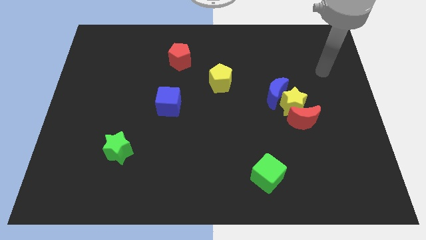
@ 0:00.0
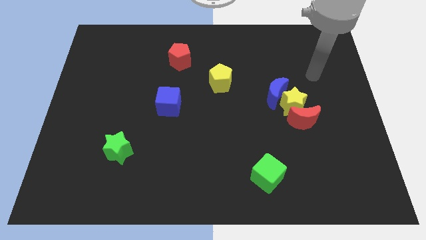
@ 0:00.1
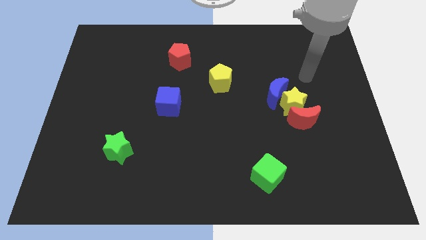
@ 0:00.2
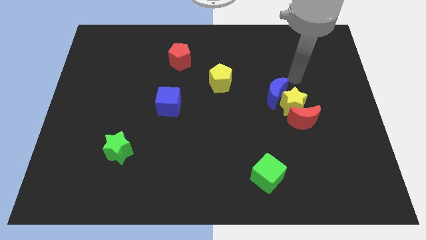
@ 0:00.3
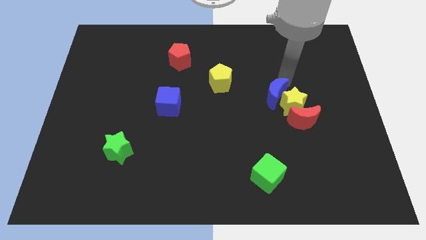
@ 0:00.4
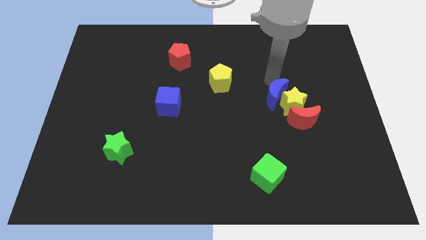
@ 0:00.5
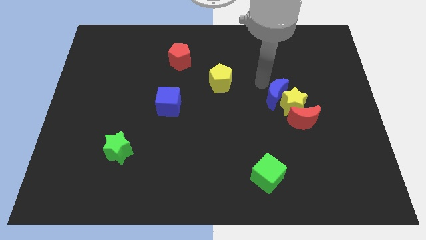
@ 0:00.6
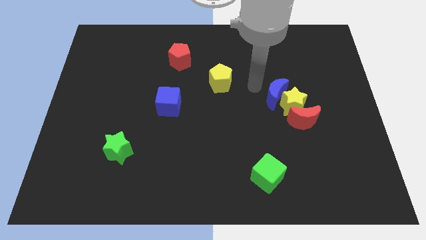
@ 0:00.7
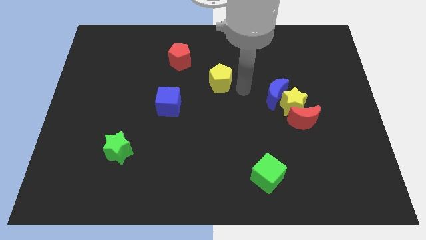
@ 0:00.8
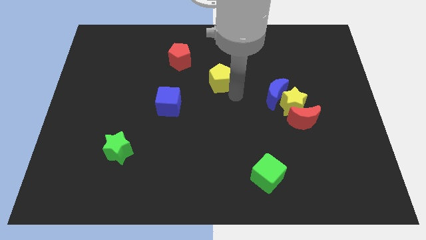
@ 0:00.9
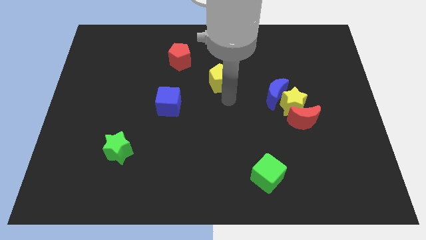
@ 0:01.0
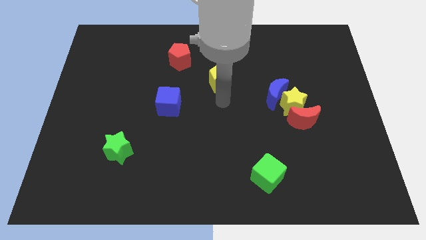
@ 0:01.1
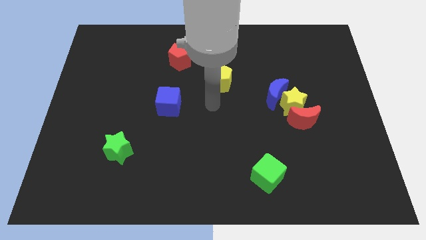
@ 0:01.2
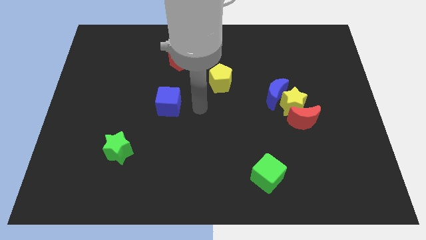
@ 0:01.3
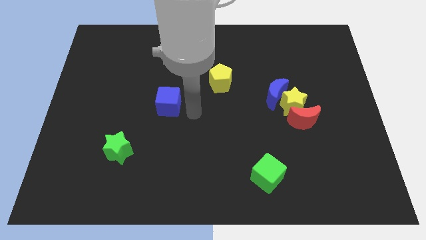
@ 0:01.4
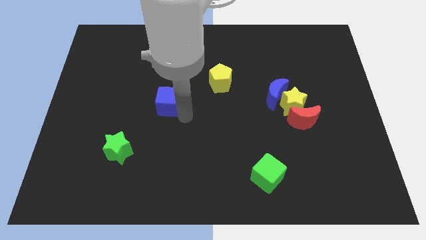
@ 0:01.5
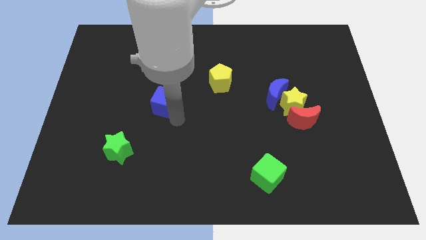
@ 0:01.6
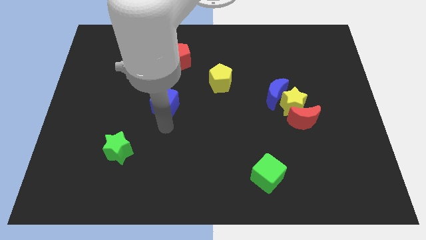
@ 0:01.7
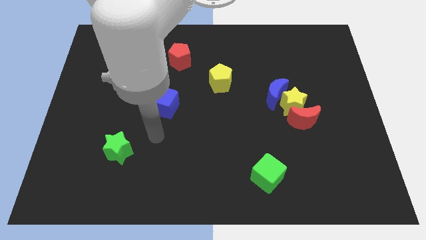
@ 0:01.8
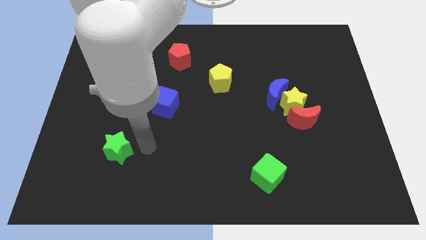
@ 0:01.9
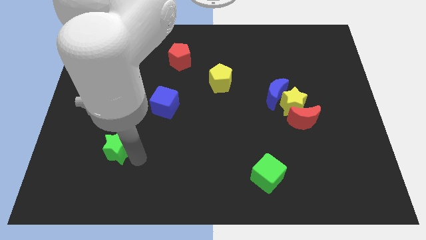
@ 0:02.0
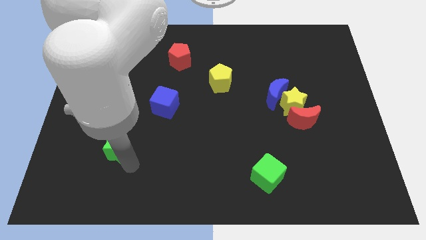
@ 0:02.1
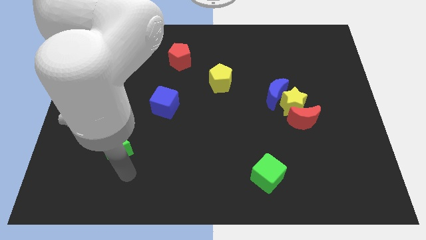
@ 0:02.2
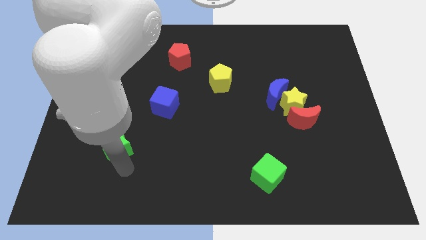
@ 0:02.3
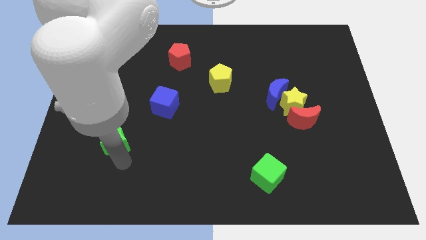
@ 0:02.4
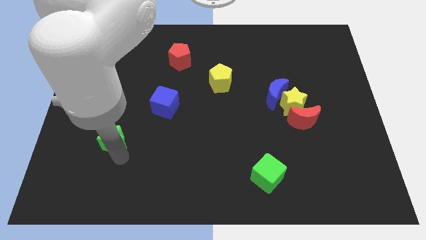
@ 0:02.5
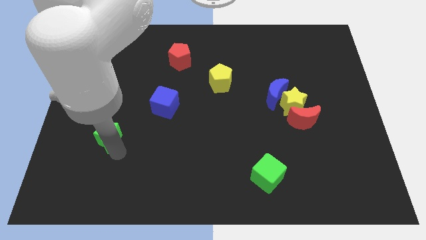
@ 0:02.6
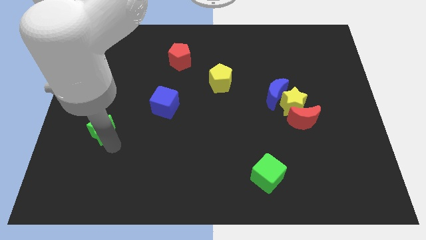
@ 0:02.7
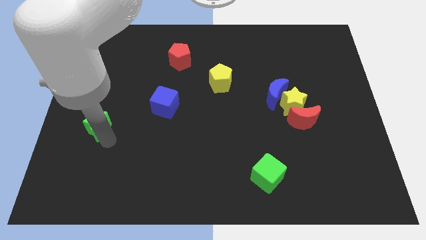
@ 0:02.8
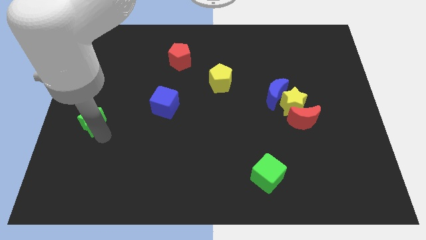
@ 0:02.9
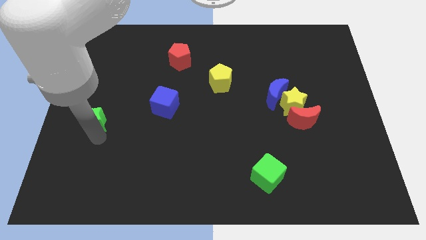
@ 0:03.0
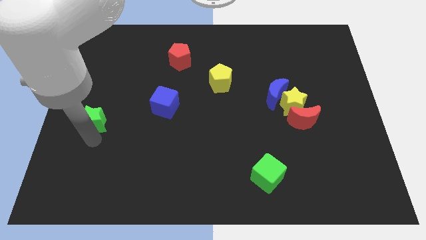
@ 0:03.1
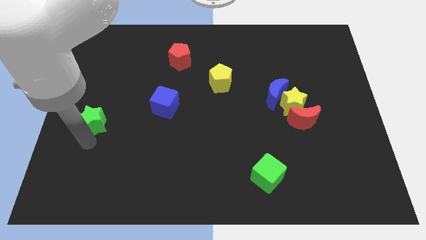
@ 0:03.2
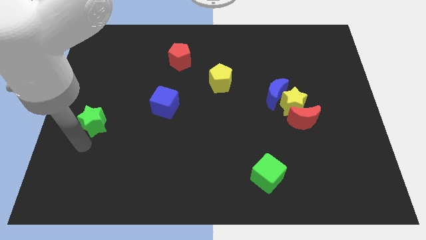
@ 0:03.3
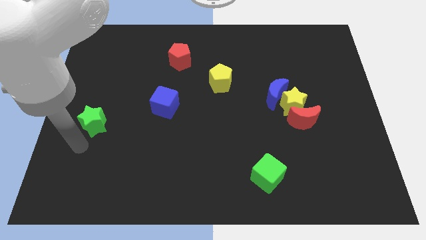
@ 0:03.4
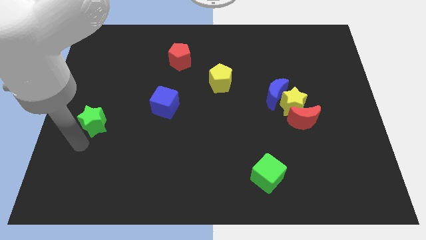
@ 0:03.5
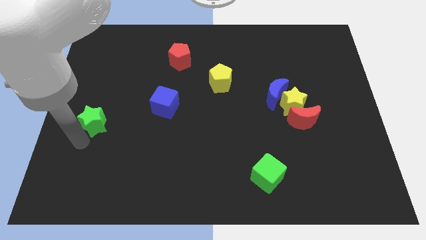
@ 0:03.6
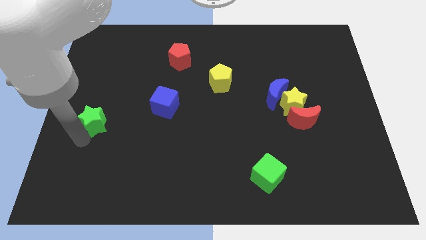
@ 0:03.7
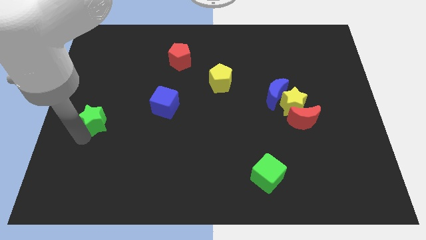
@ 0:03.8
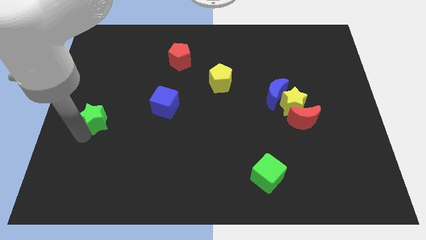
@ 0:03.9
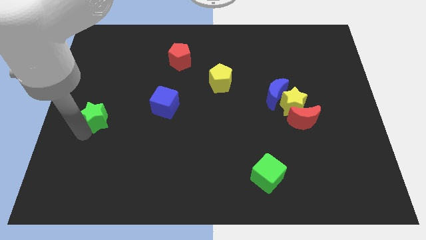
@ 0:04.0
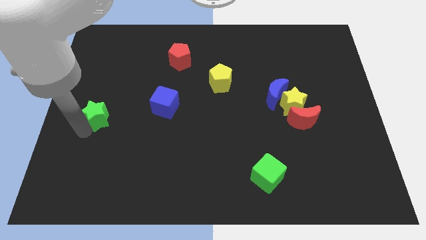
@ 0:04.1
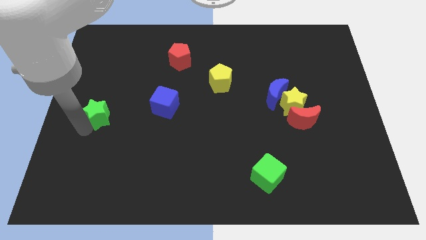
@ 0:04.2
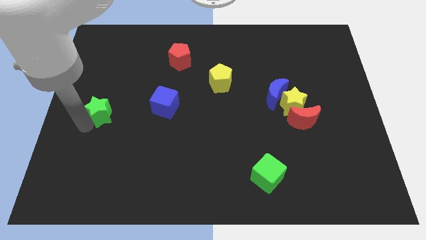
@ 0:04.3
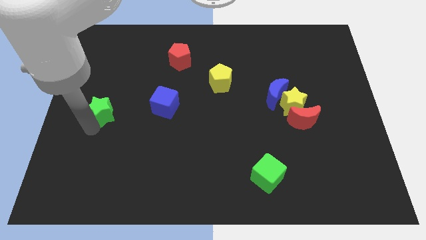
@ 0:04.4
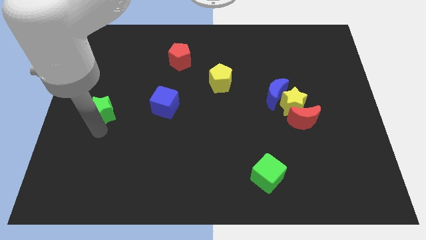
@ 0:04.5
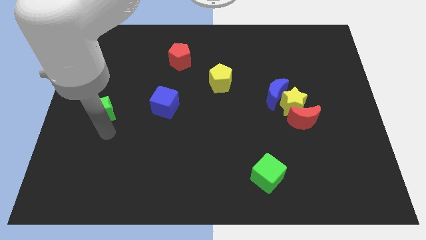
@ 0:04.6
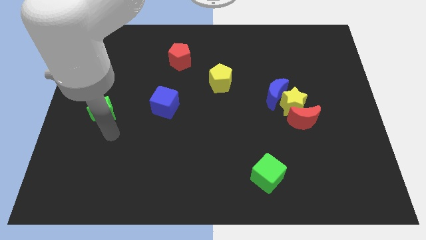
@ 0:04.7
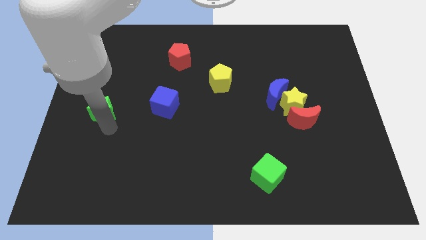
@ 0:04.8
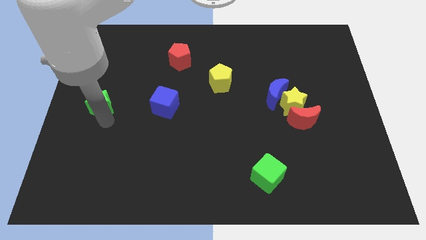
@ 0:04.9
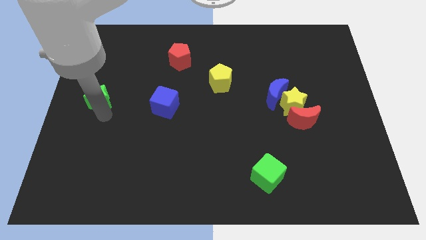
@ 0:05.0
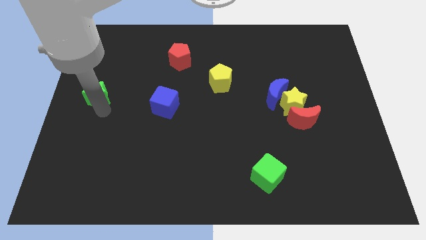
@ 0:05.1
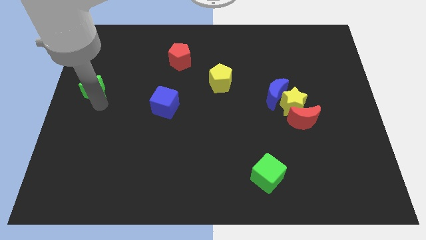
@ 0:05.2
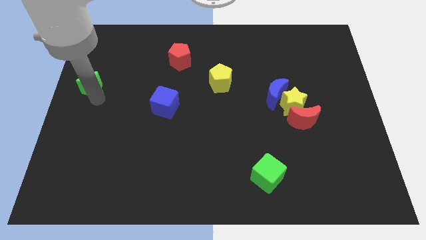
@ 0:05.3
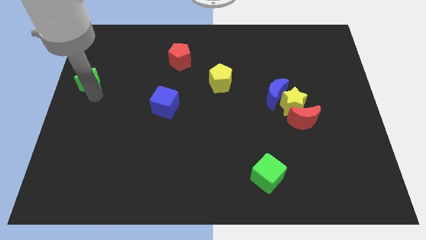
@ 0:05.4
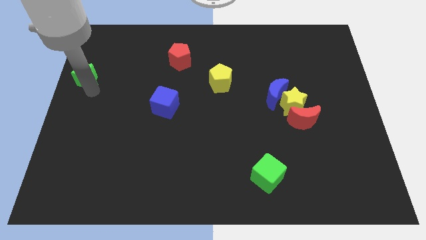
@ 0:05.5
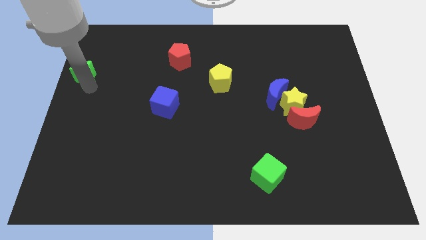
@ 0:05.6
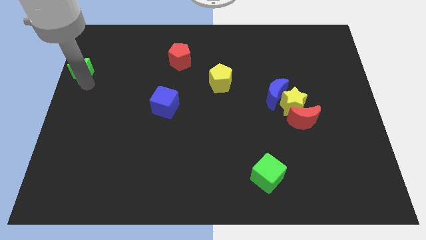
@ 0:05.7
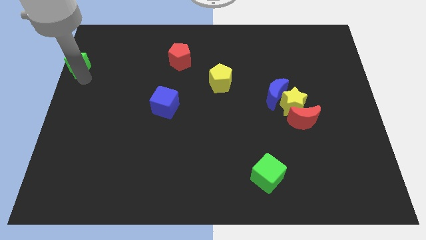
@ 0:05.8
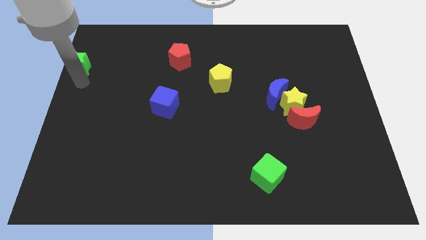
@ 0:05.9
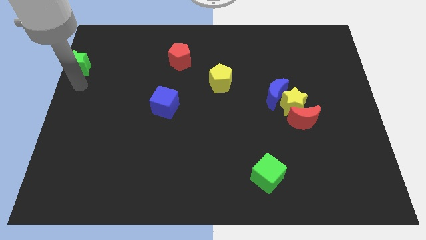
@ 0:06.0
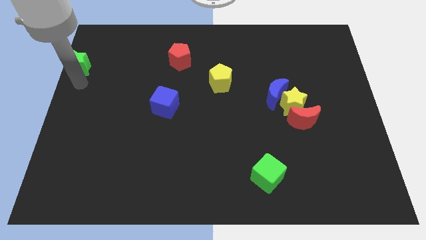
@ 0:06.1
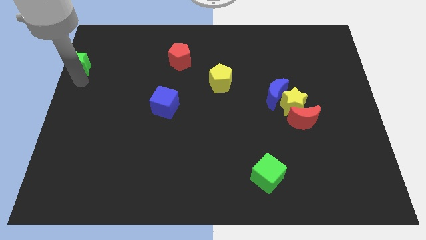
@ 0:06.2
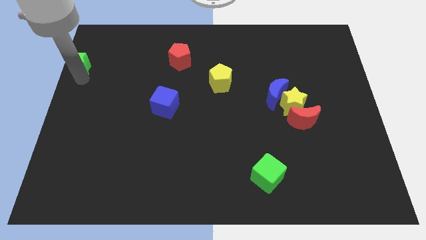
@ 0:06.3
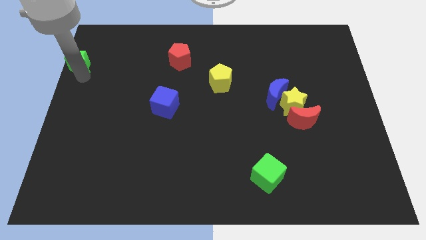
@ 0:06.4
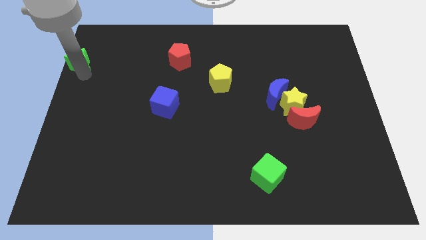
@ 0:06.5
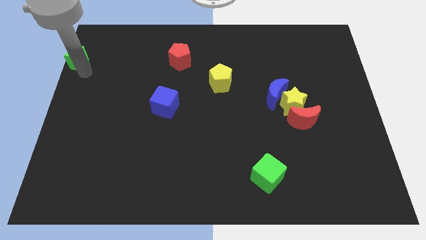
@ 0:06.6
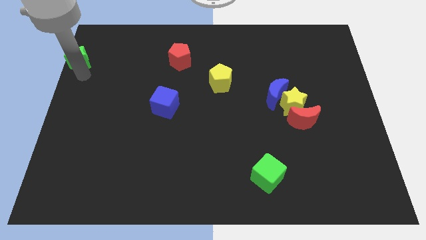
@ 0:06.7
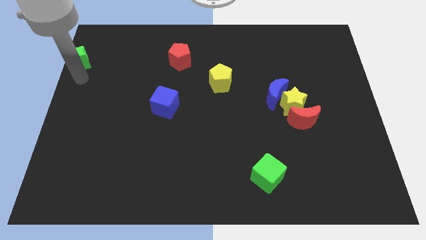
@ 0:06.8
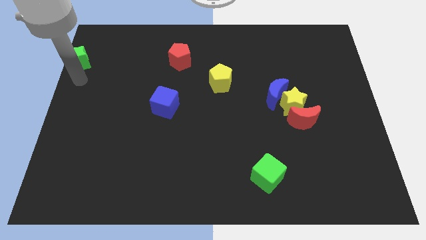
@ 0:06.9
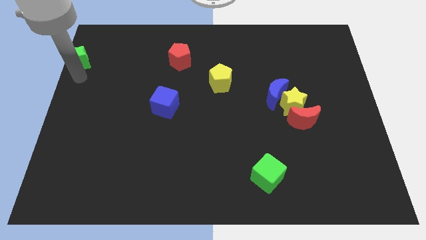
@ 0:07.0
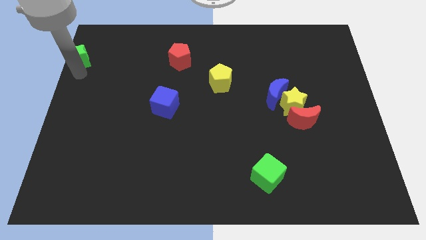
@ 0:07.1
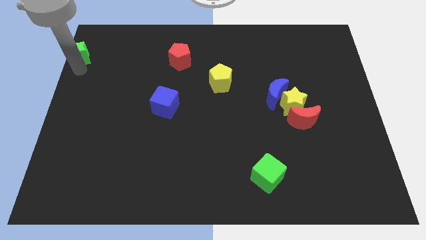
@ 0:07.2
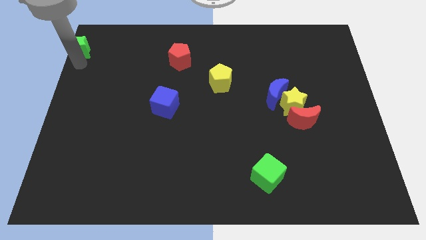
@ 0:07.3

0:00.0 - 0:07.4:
move the green star to the top left corner
